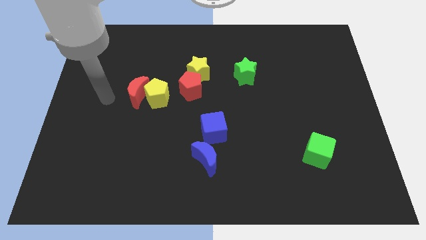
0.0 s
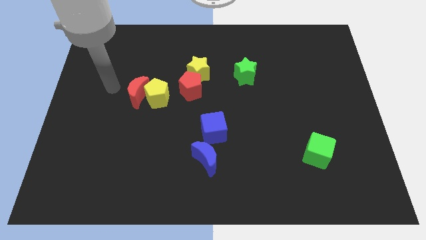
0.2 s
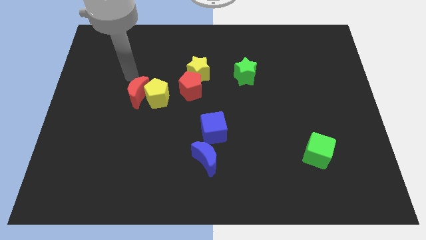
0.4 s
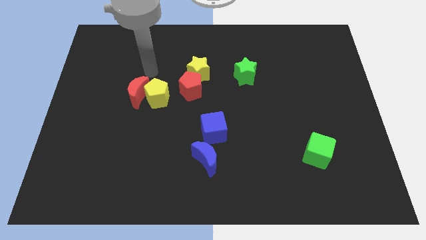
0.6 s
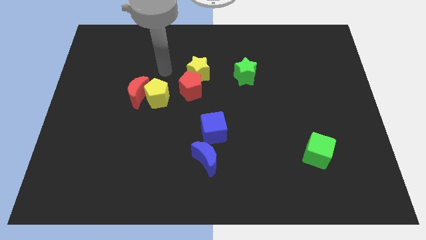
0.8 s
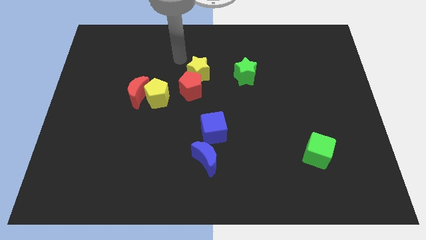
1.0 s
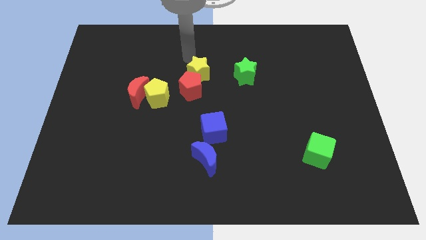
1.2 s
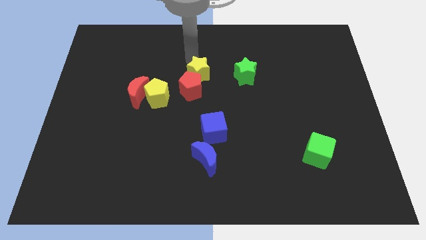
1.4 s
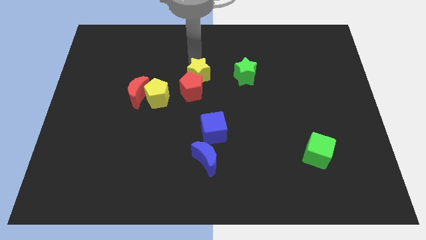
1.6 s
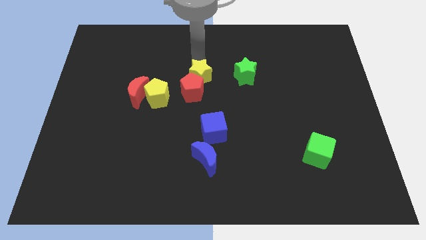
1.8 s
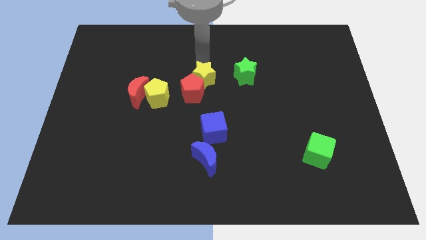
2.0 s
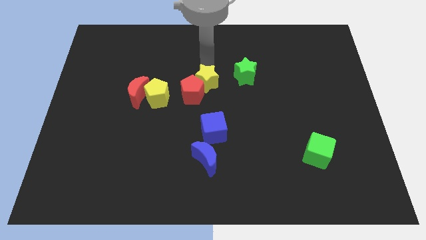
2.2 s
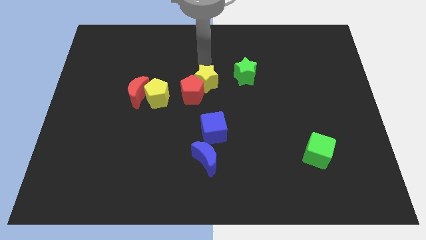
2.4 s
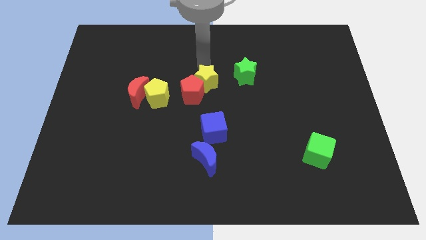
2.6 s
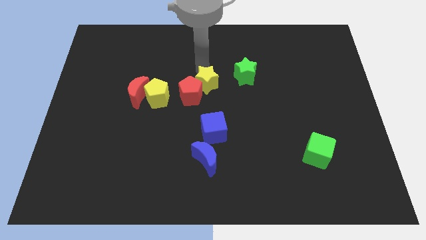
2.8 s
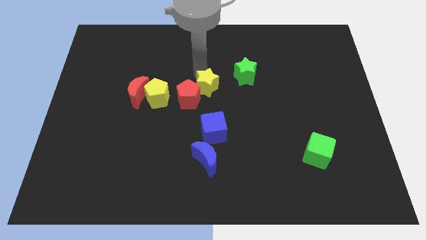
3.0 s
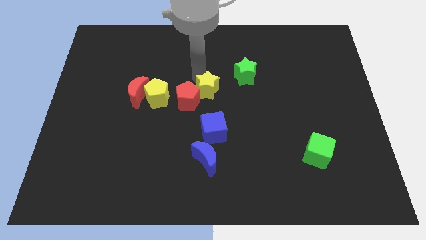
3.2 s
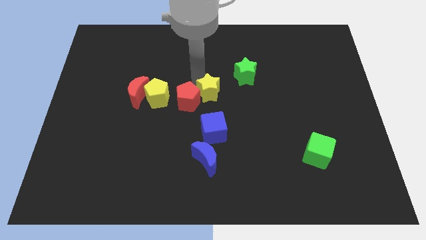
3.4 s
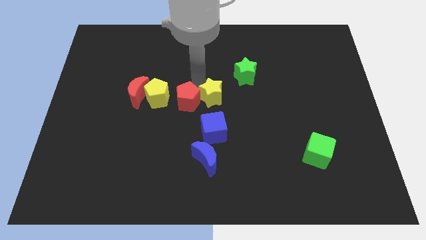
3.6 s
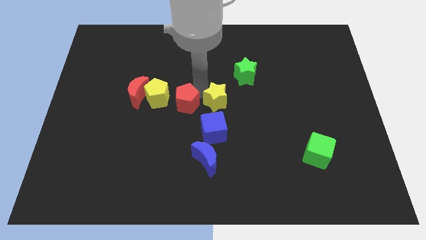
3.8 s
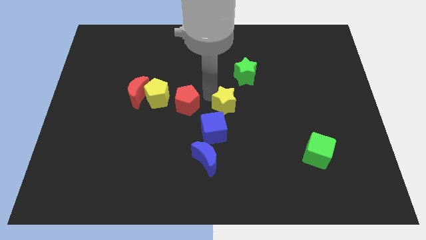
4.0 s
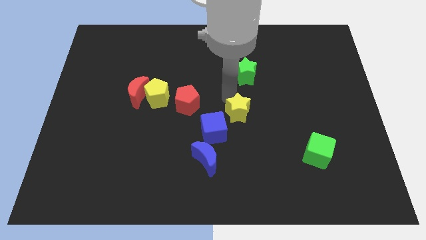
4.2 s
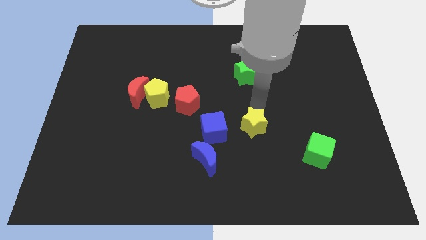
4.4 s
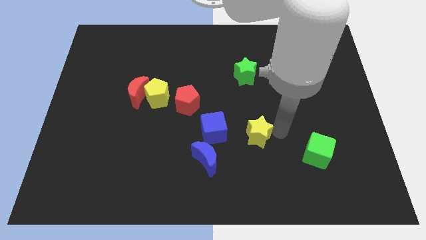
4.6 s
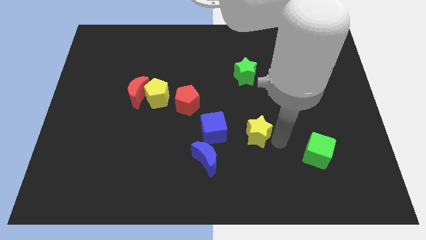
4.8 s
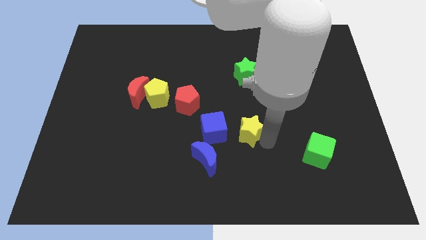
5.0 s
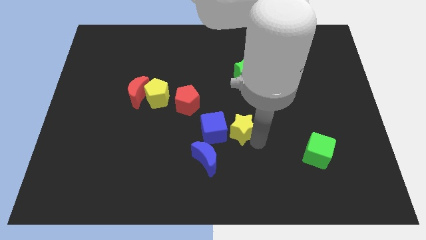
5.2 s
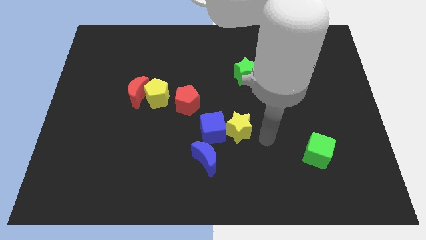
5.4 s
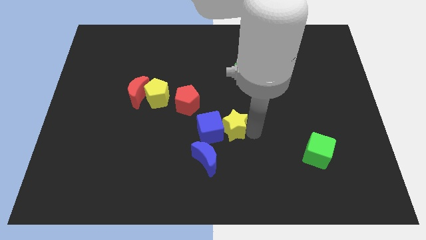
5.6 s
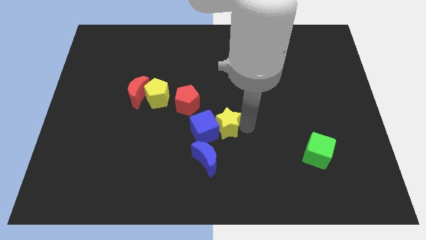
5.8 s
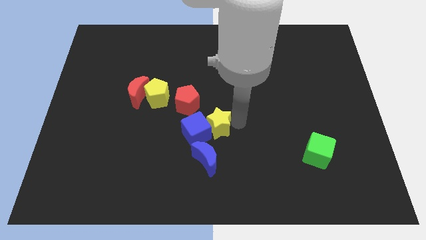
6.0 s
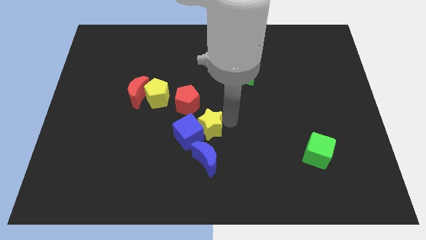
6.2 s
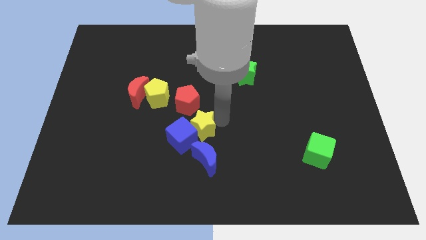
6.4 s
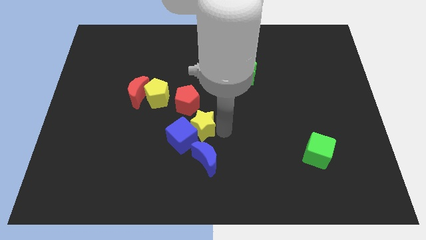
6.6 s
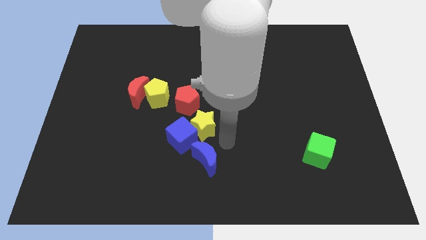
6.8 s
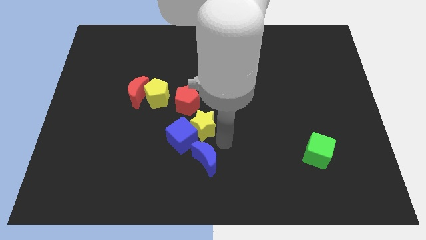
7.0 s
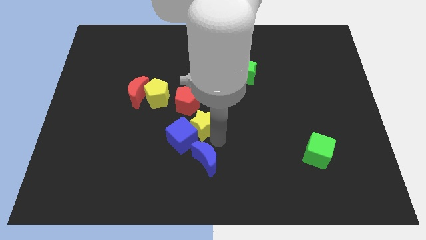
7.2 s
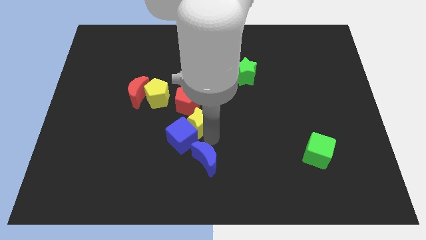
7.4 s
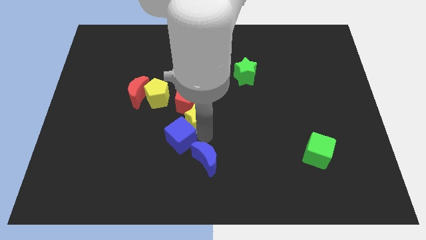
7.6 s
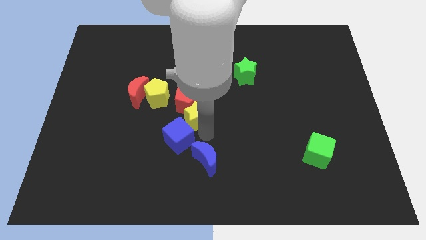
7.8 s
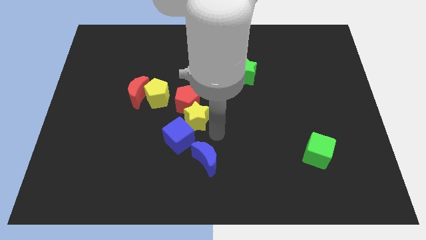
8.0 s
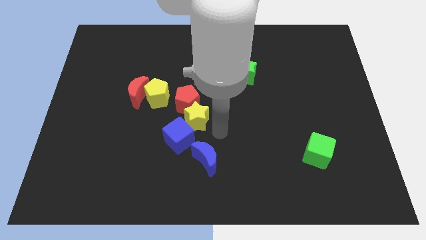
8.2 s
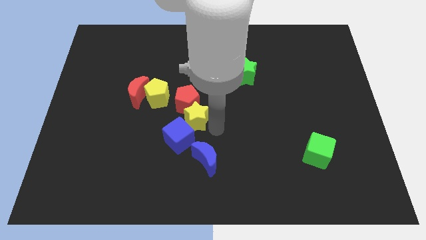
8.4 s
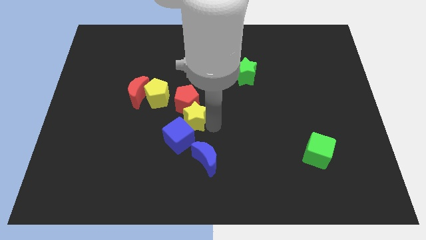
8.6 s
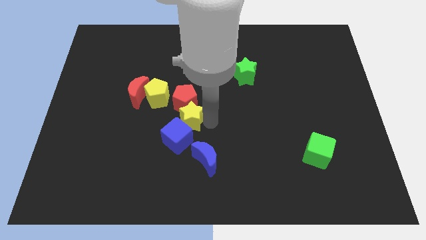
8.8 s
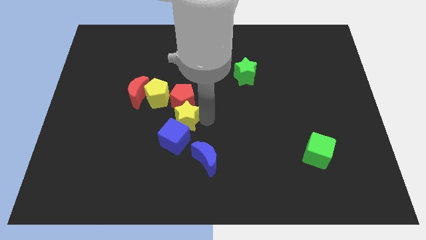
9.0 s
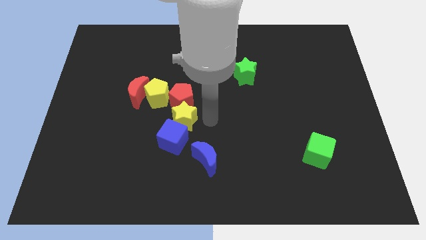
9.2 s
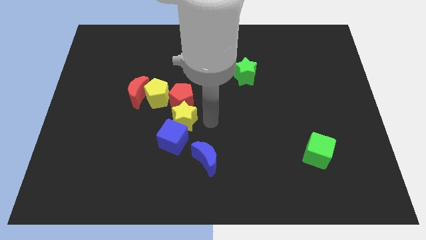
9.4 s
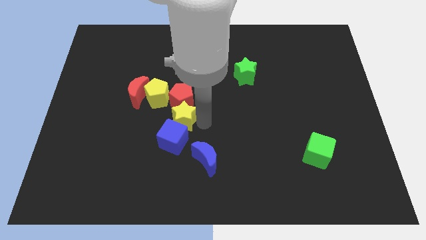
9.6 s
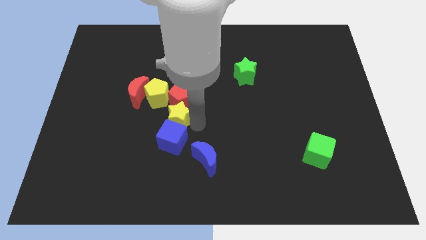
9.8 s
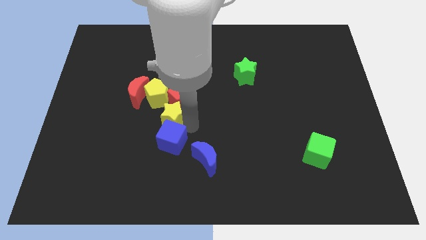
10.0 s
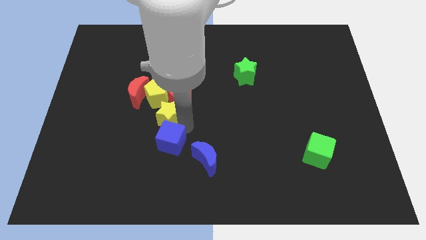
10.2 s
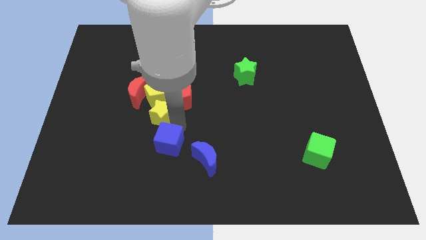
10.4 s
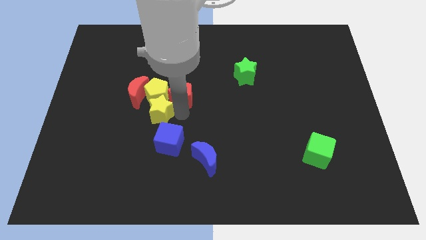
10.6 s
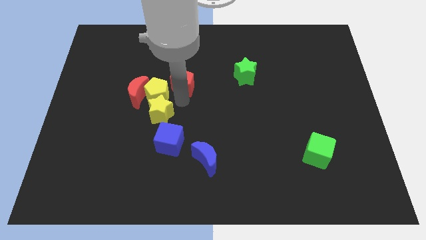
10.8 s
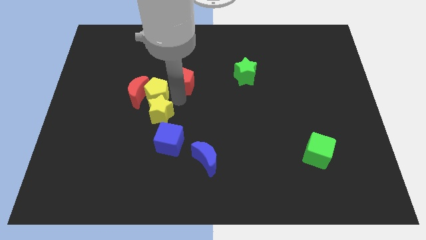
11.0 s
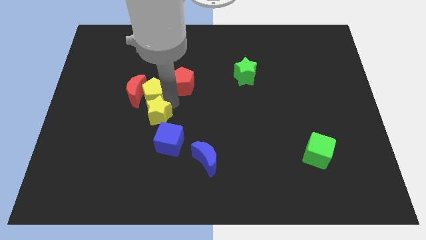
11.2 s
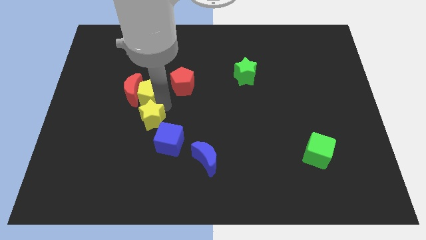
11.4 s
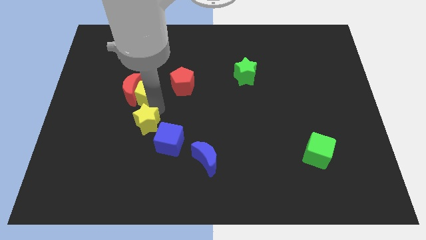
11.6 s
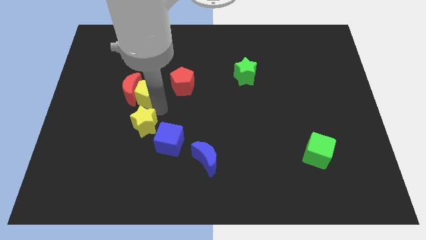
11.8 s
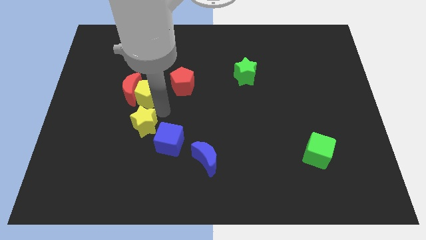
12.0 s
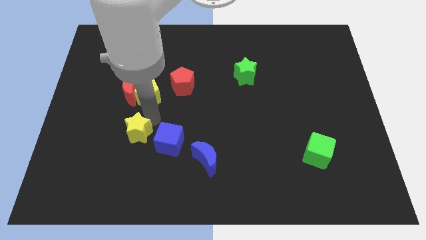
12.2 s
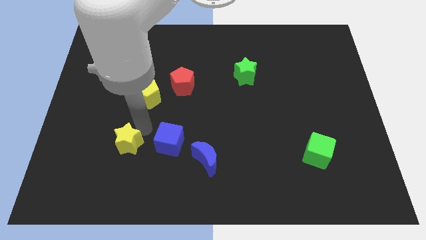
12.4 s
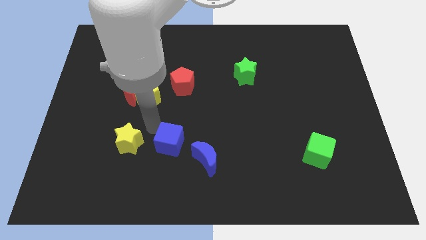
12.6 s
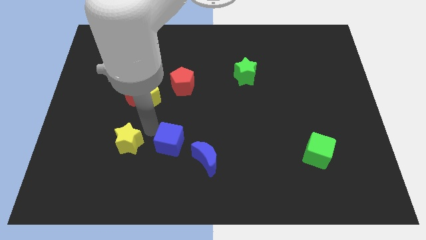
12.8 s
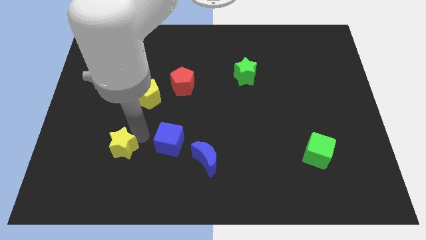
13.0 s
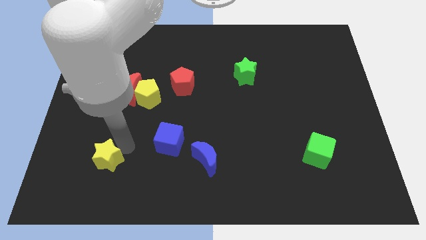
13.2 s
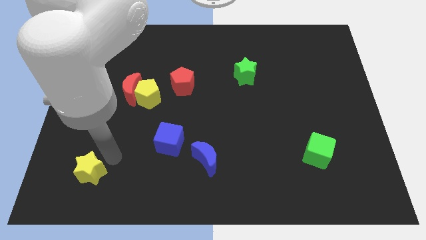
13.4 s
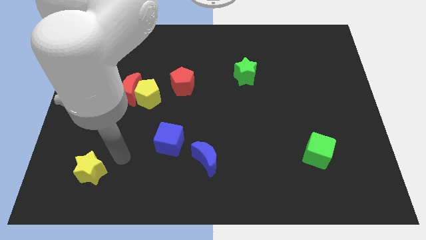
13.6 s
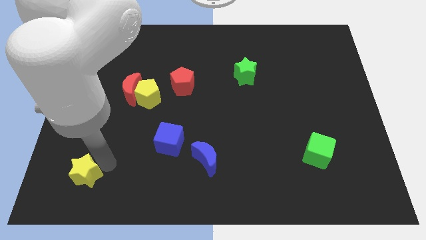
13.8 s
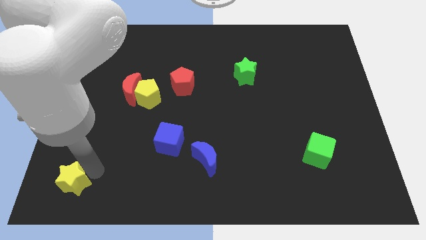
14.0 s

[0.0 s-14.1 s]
put the yellow star to the lower left corner

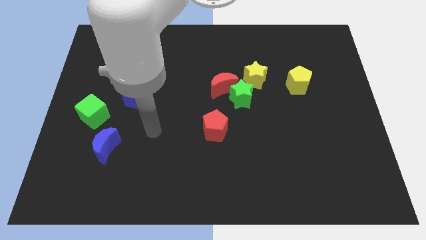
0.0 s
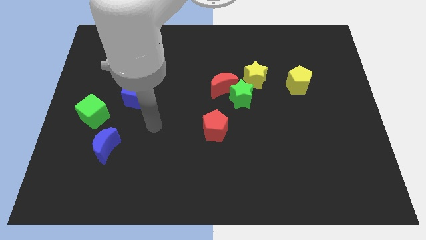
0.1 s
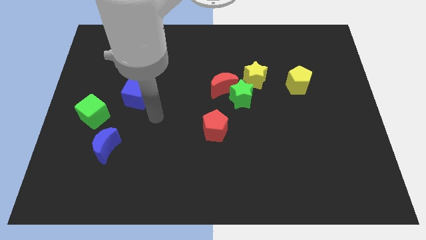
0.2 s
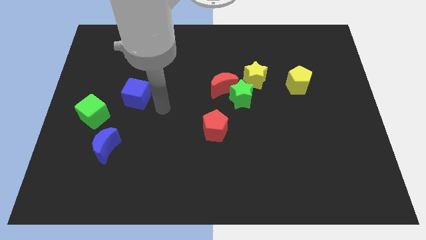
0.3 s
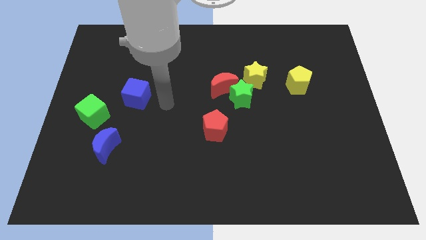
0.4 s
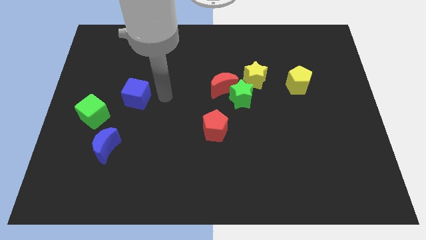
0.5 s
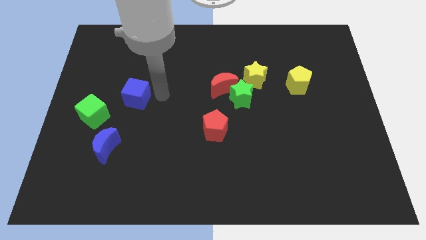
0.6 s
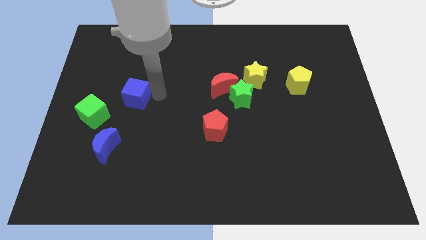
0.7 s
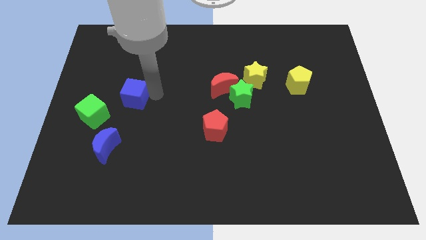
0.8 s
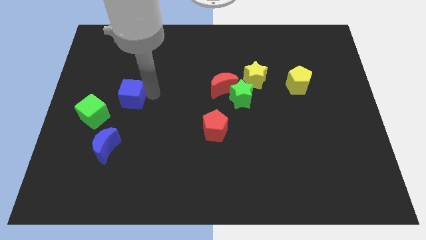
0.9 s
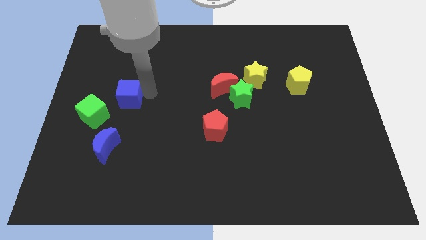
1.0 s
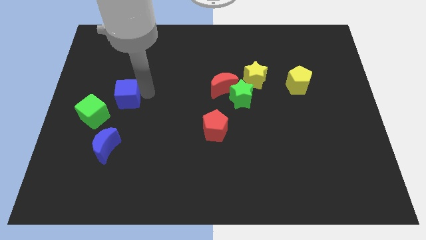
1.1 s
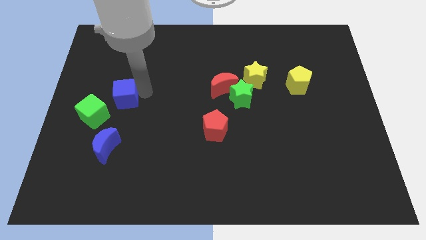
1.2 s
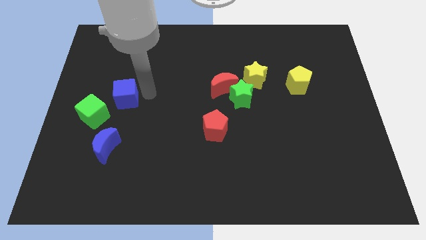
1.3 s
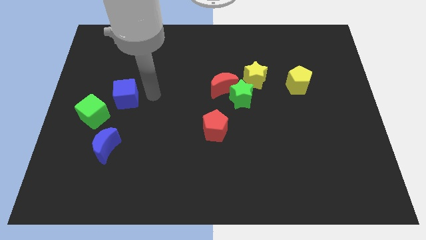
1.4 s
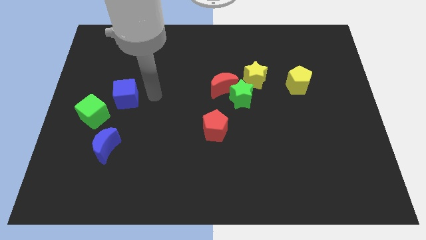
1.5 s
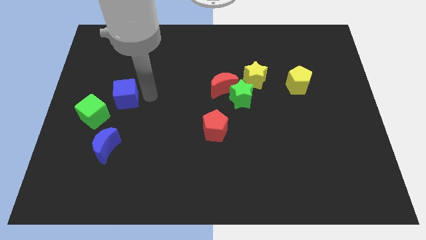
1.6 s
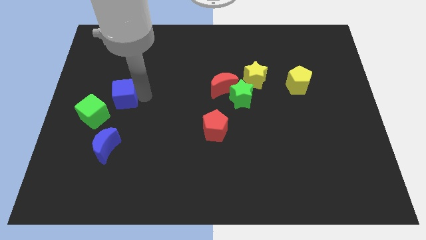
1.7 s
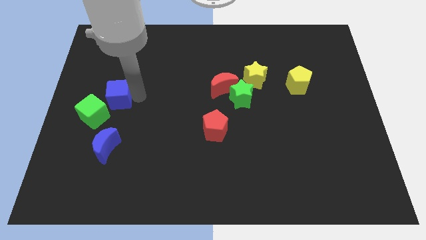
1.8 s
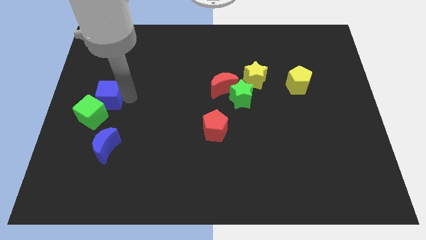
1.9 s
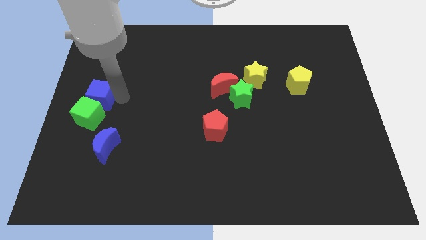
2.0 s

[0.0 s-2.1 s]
move the blue cube to the left side
